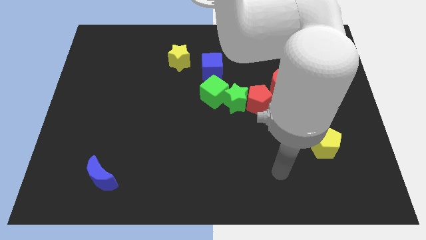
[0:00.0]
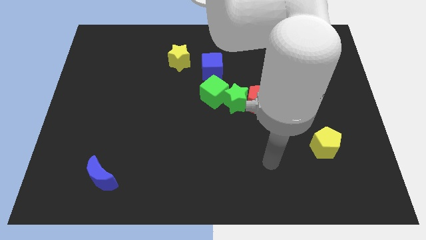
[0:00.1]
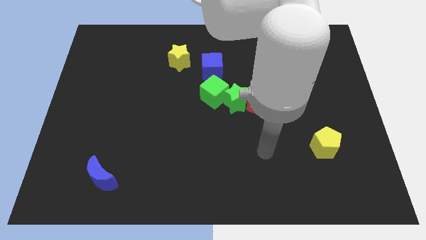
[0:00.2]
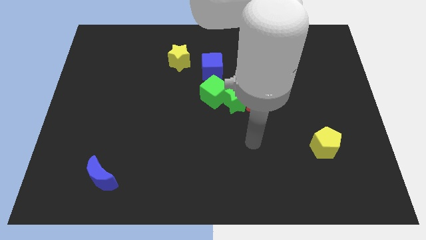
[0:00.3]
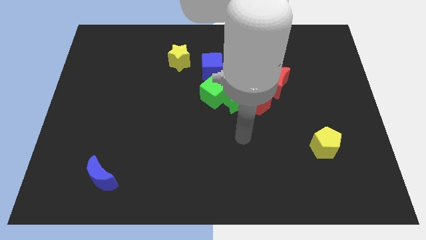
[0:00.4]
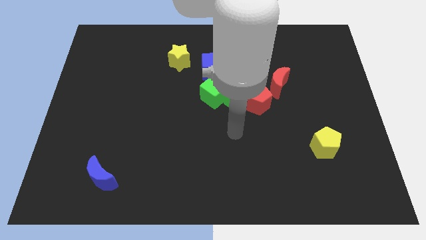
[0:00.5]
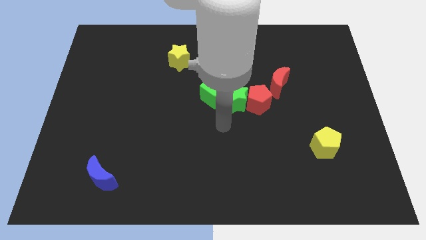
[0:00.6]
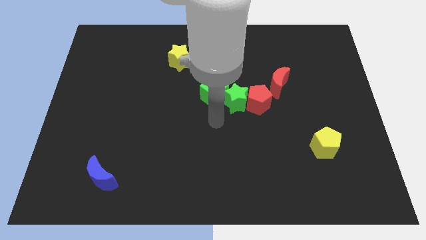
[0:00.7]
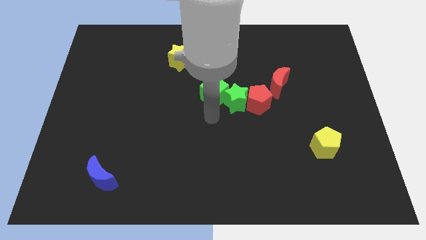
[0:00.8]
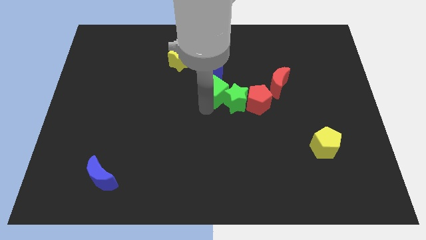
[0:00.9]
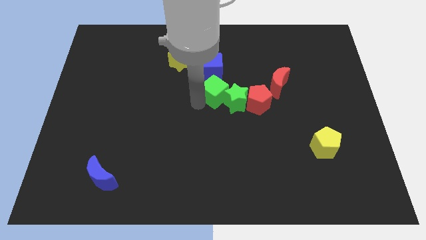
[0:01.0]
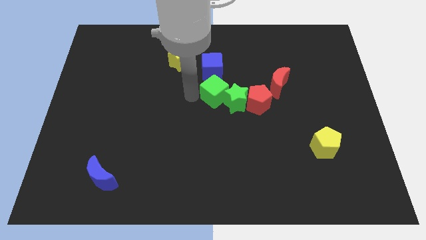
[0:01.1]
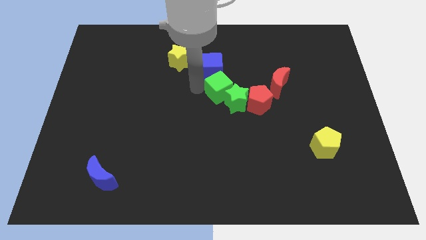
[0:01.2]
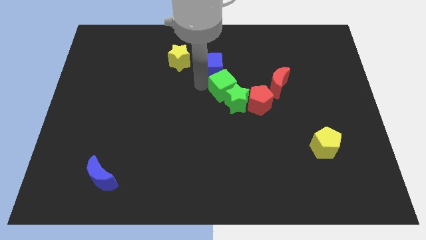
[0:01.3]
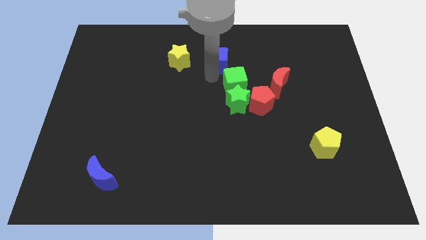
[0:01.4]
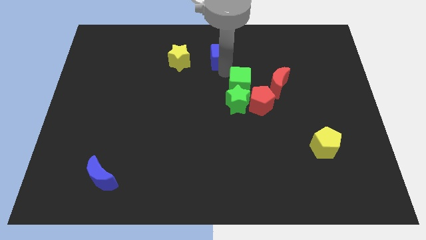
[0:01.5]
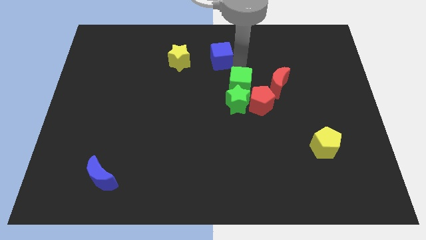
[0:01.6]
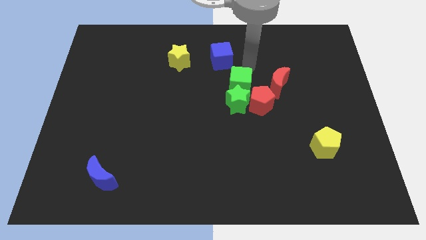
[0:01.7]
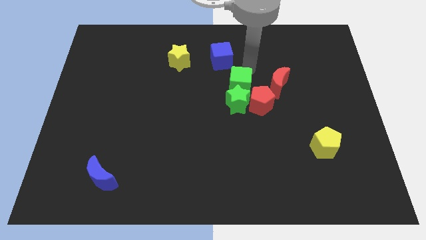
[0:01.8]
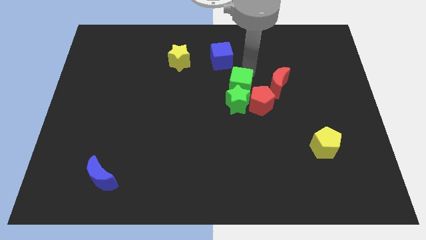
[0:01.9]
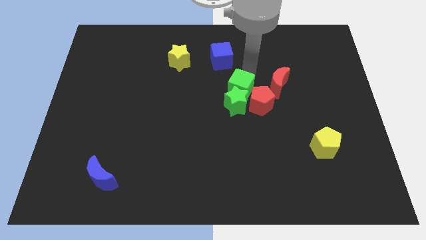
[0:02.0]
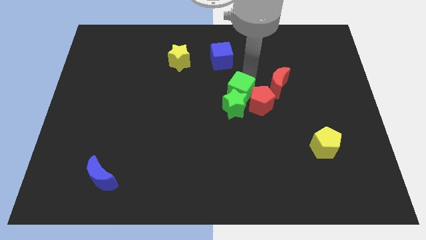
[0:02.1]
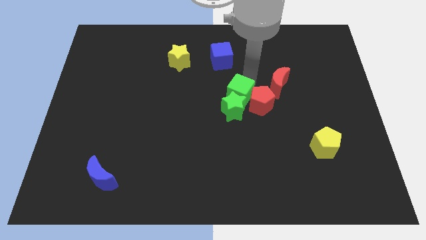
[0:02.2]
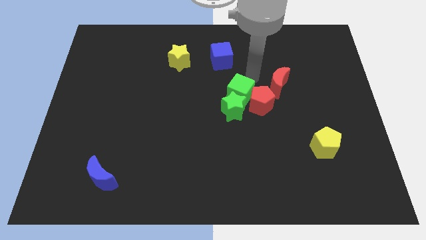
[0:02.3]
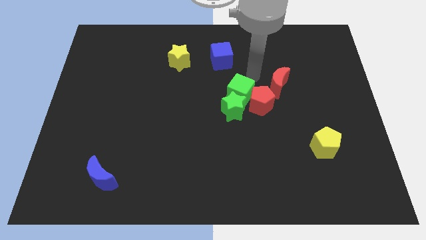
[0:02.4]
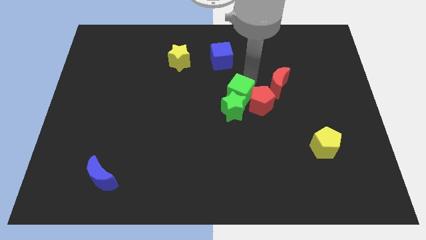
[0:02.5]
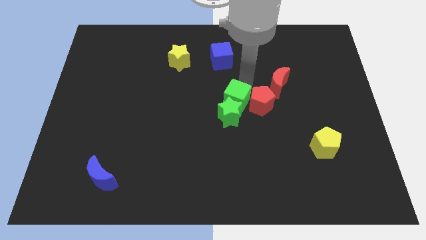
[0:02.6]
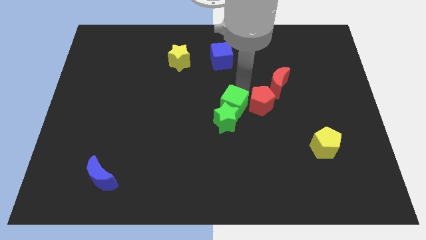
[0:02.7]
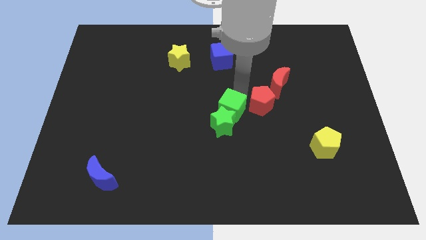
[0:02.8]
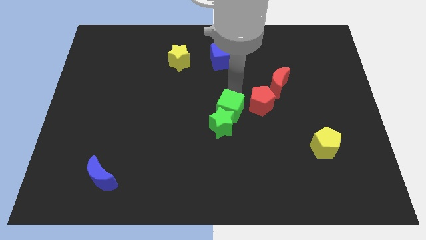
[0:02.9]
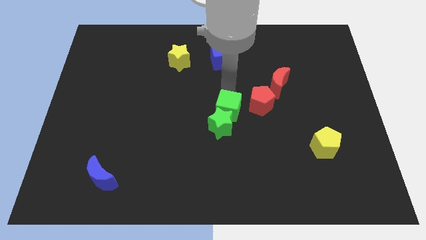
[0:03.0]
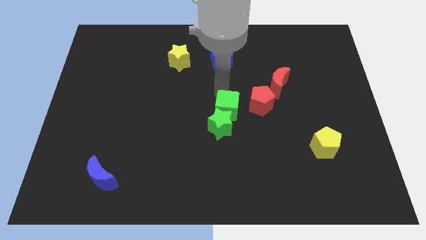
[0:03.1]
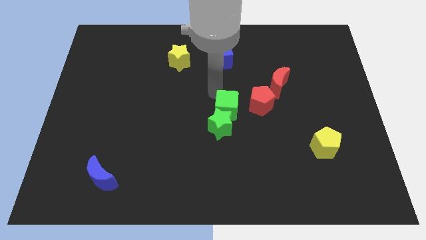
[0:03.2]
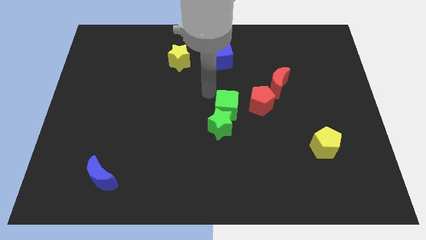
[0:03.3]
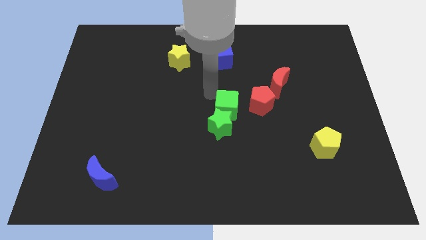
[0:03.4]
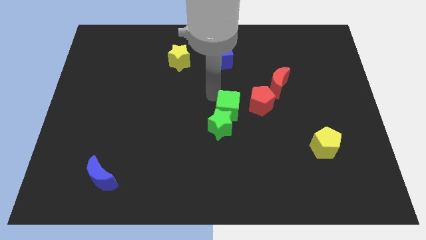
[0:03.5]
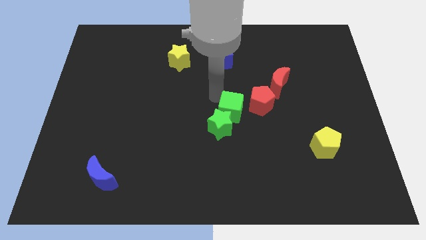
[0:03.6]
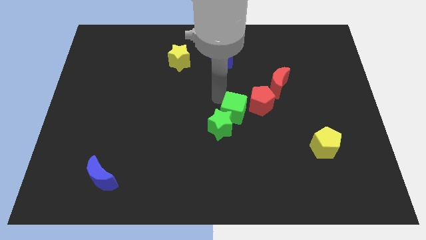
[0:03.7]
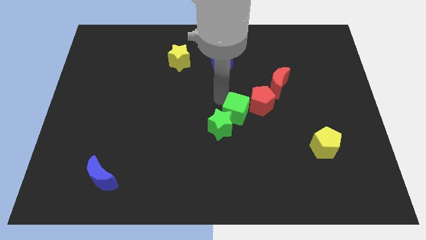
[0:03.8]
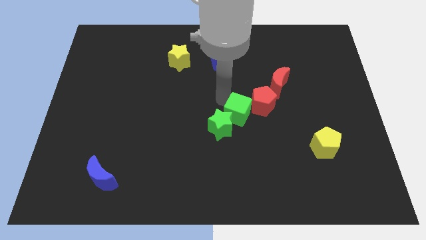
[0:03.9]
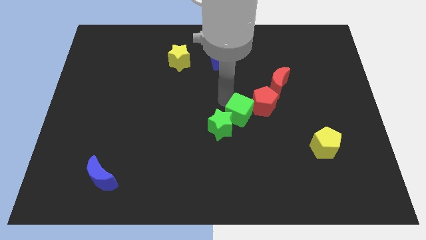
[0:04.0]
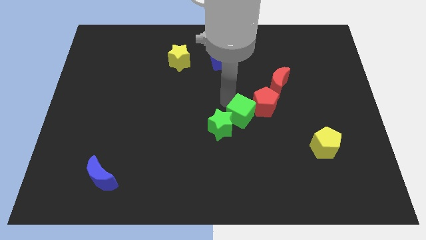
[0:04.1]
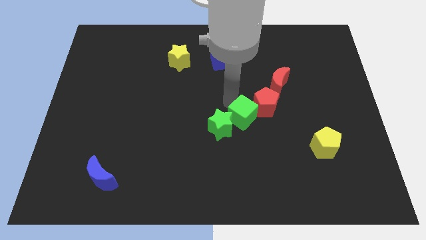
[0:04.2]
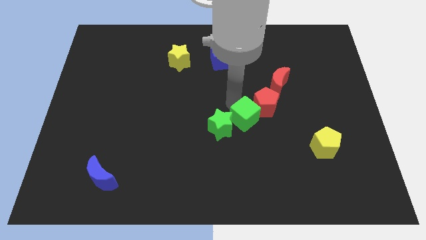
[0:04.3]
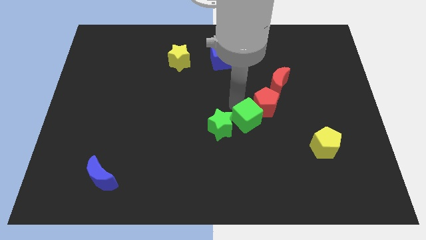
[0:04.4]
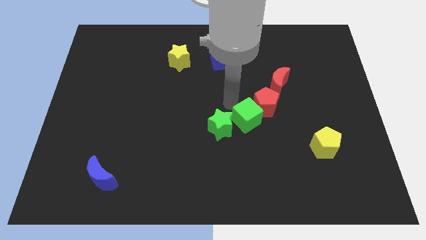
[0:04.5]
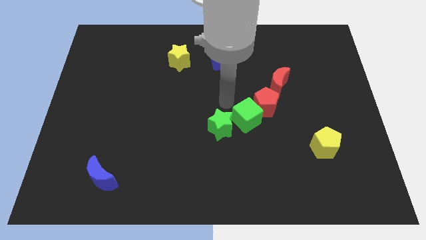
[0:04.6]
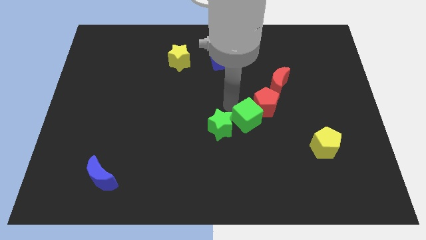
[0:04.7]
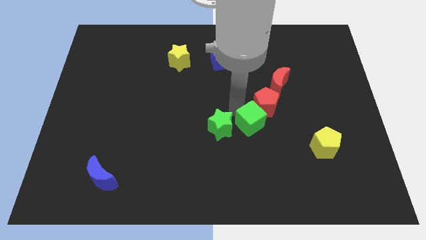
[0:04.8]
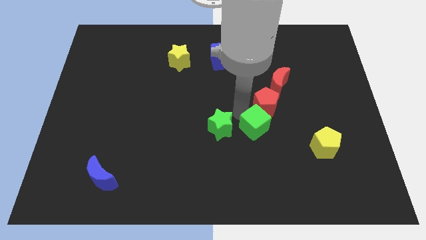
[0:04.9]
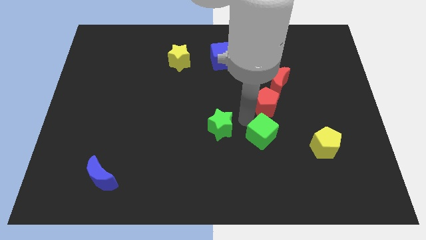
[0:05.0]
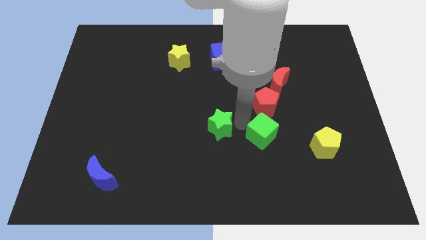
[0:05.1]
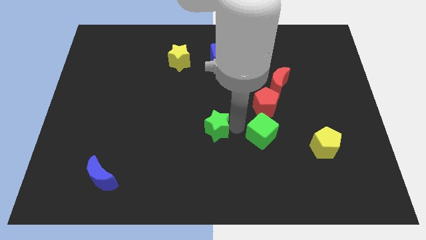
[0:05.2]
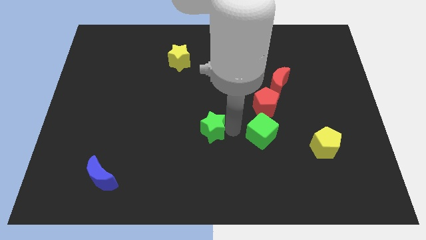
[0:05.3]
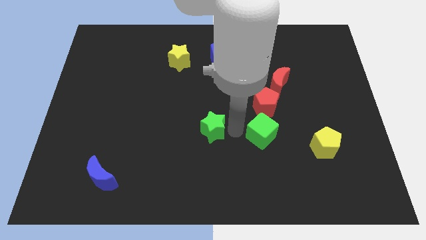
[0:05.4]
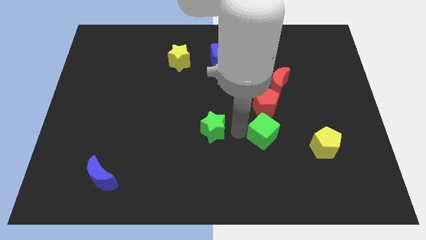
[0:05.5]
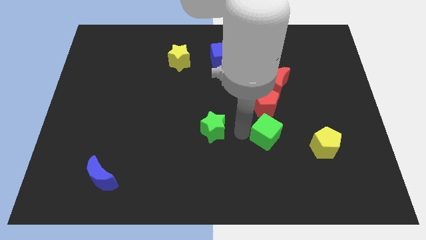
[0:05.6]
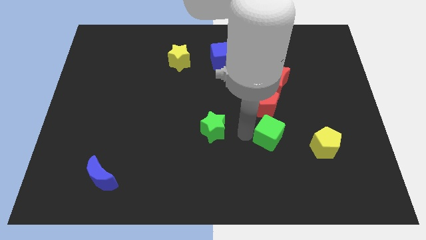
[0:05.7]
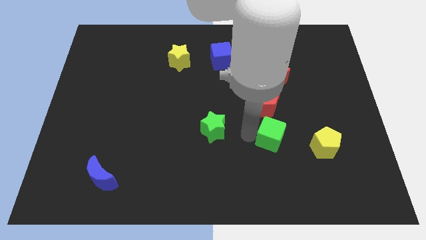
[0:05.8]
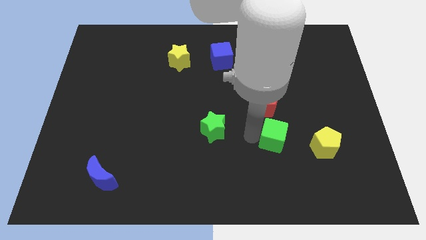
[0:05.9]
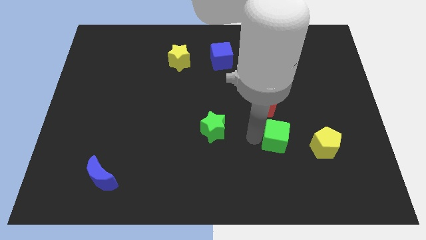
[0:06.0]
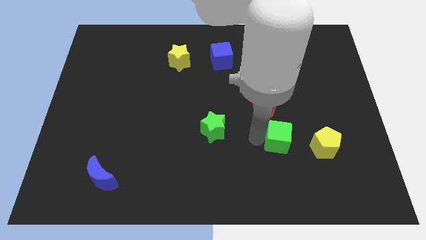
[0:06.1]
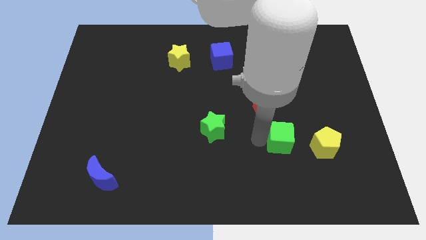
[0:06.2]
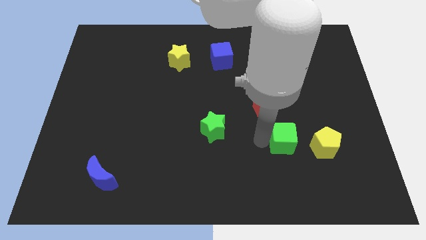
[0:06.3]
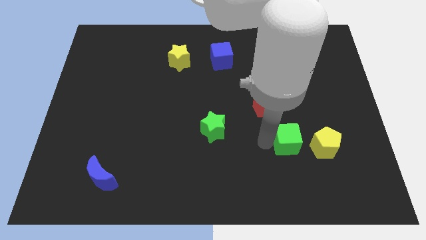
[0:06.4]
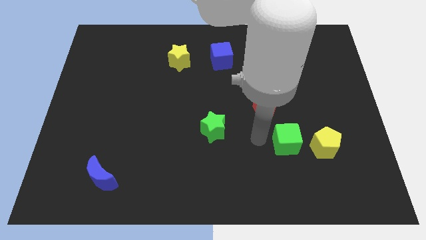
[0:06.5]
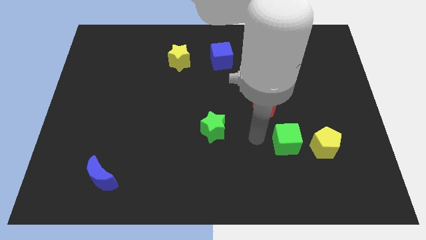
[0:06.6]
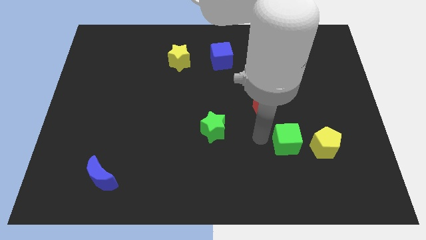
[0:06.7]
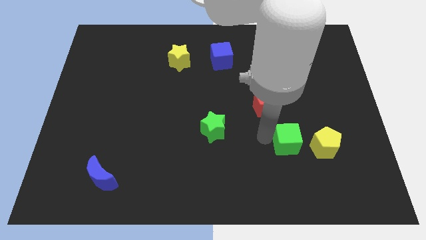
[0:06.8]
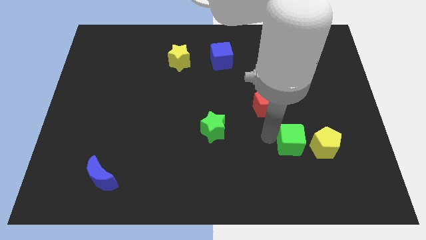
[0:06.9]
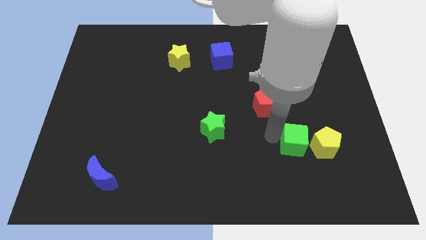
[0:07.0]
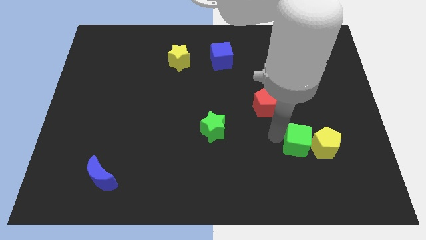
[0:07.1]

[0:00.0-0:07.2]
move the green cube to the yellow pentagon
